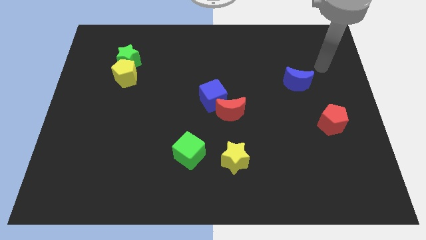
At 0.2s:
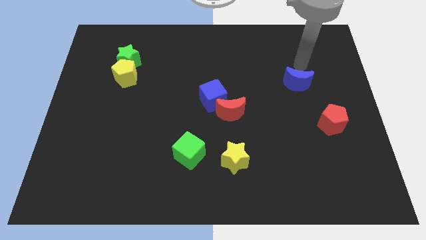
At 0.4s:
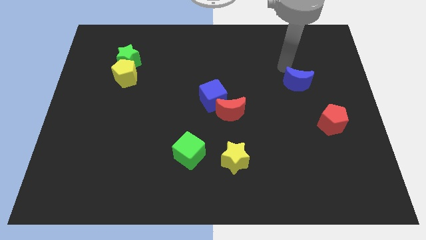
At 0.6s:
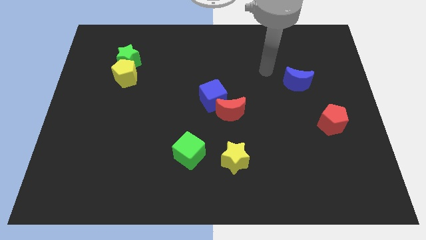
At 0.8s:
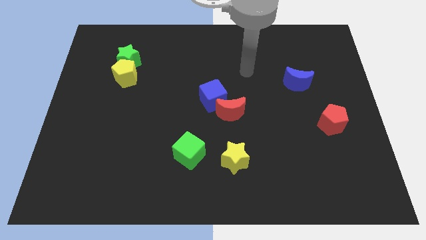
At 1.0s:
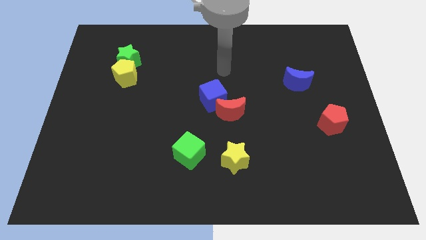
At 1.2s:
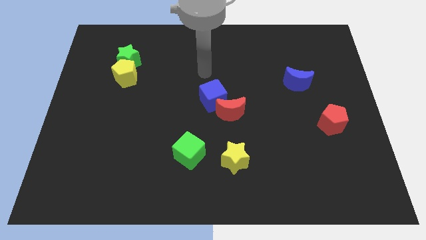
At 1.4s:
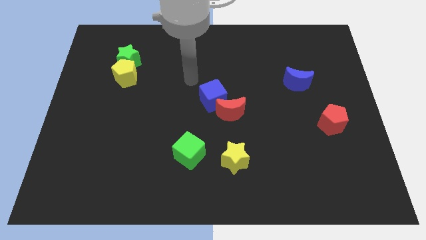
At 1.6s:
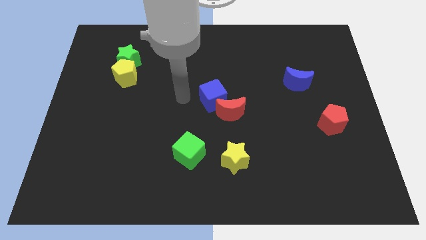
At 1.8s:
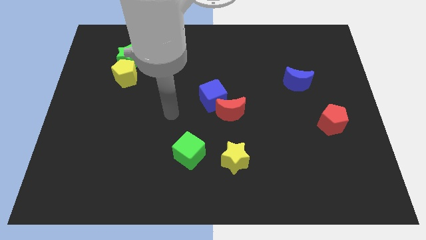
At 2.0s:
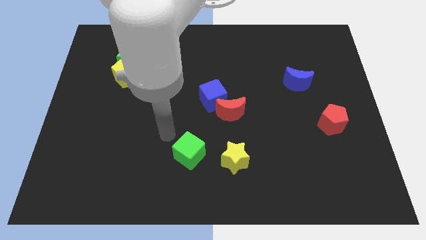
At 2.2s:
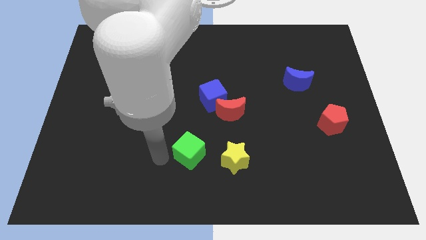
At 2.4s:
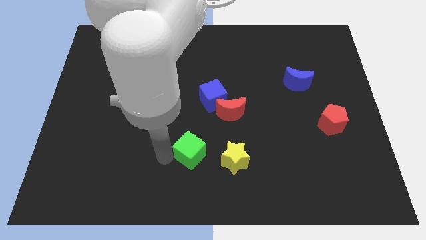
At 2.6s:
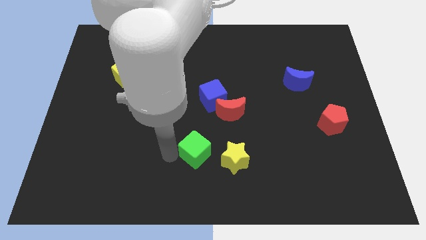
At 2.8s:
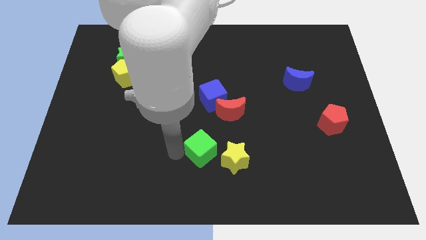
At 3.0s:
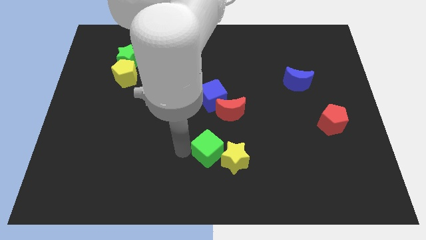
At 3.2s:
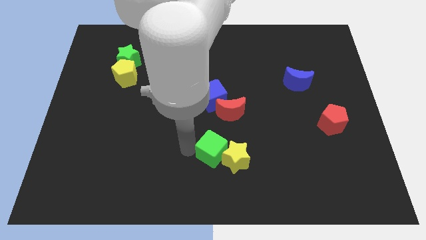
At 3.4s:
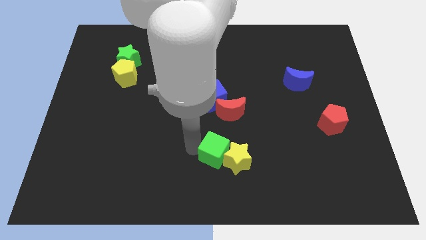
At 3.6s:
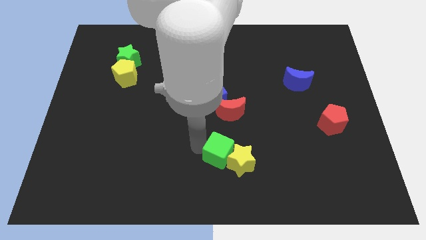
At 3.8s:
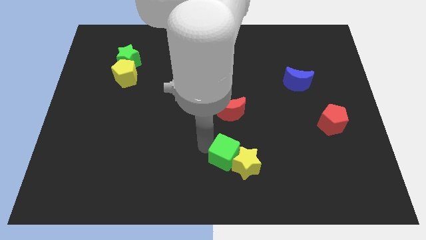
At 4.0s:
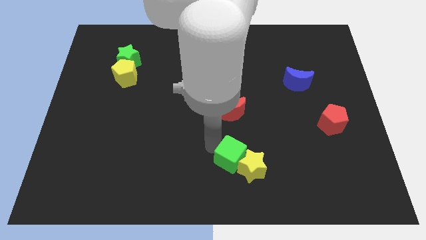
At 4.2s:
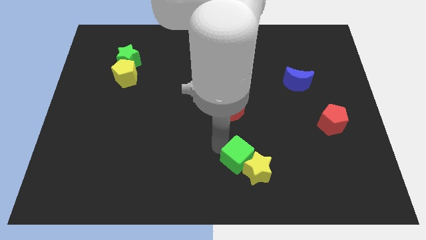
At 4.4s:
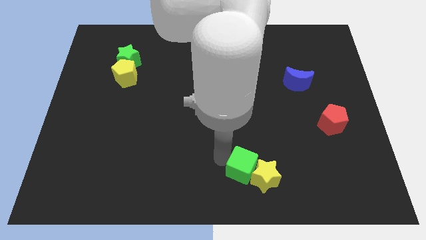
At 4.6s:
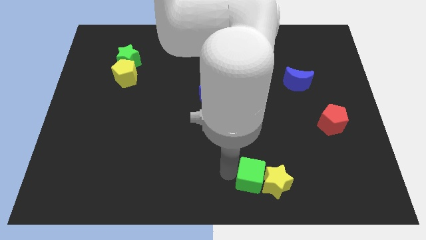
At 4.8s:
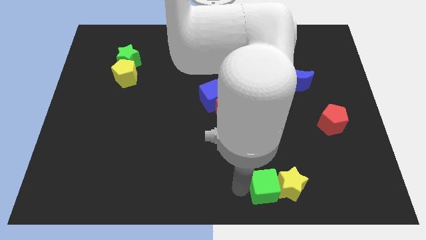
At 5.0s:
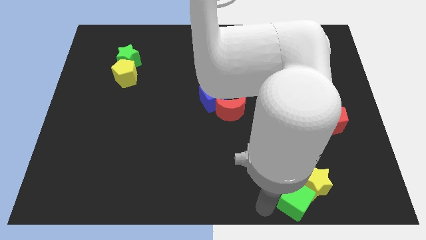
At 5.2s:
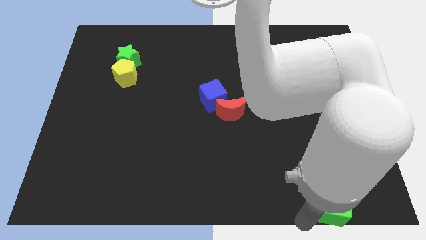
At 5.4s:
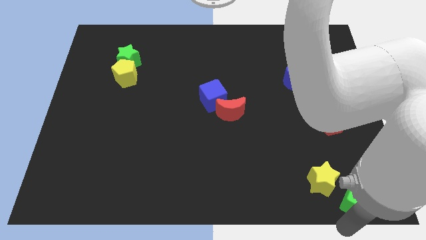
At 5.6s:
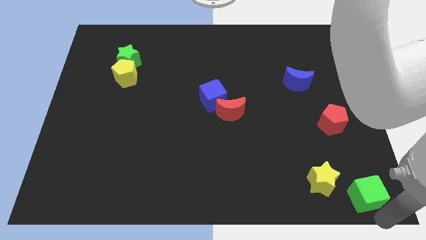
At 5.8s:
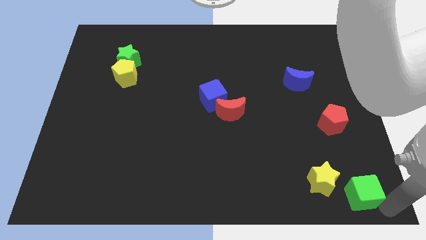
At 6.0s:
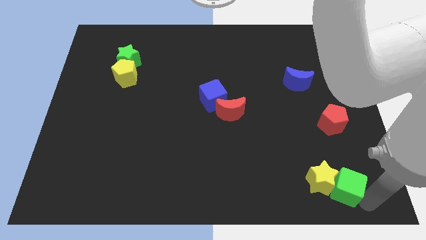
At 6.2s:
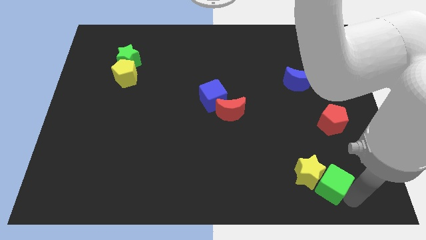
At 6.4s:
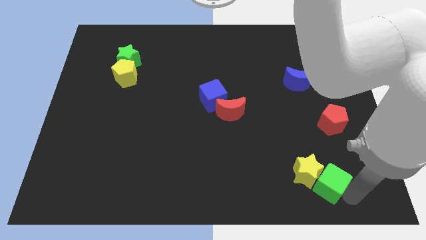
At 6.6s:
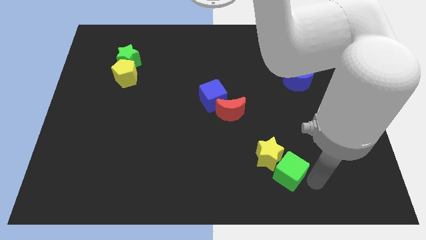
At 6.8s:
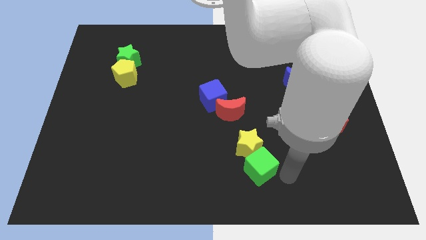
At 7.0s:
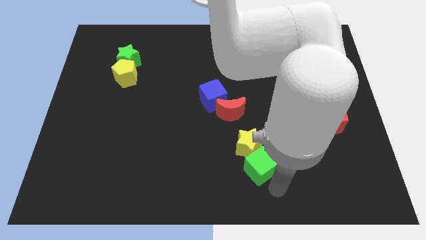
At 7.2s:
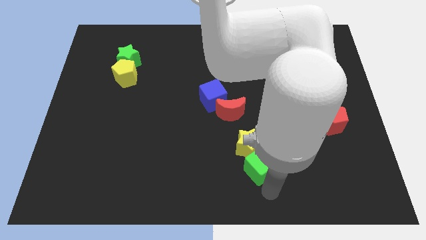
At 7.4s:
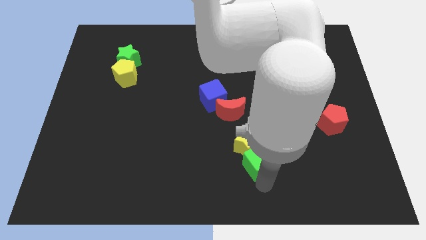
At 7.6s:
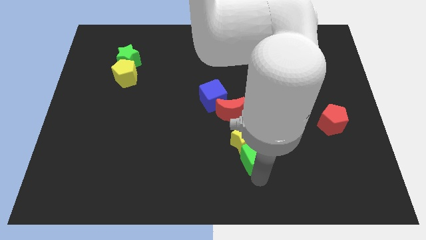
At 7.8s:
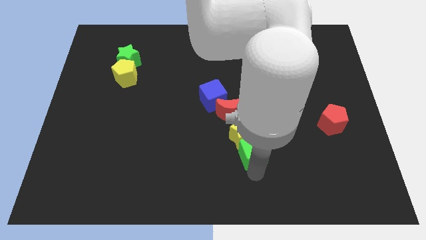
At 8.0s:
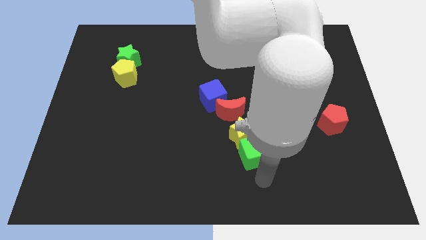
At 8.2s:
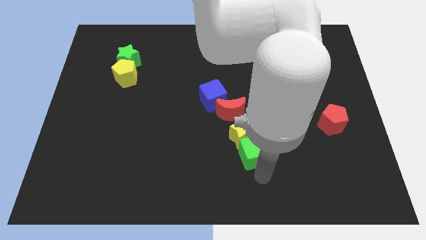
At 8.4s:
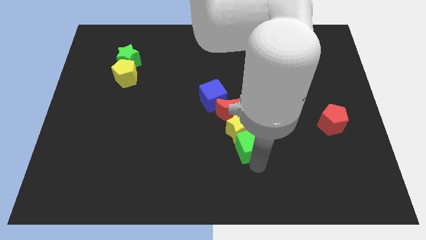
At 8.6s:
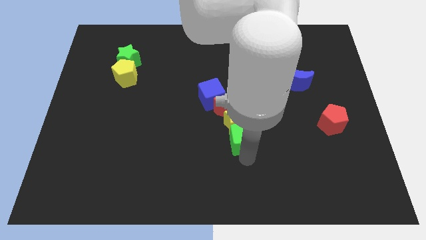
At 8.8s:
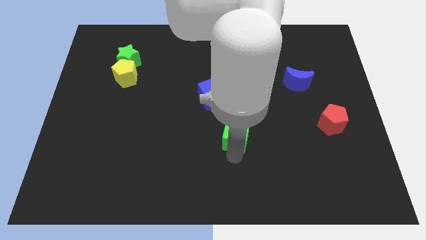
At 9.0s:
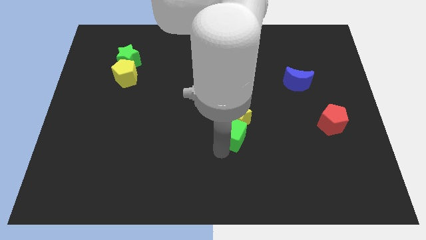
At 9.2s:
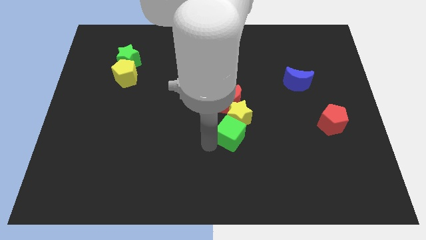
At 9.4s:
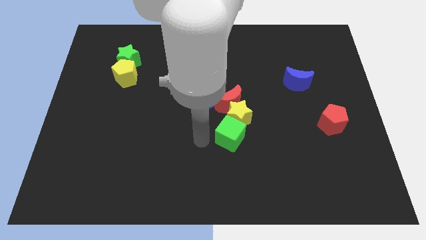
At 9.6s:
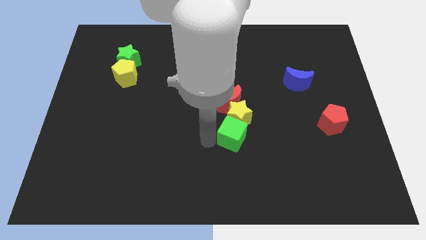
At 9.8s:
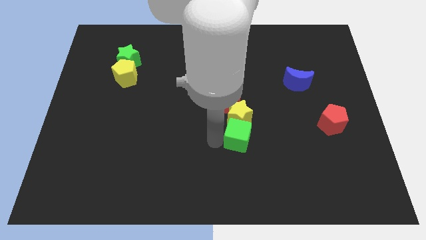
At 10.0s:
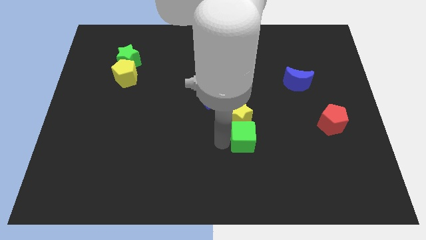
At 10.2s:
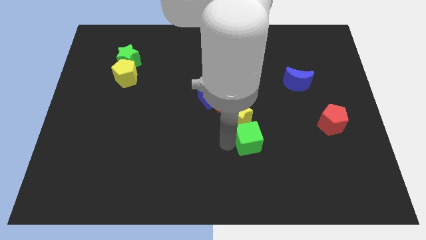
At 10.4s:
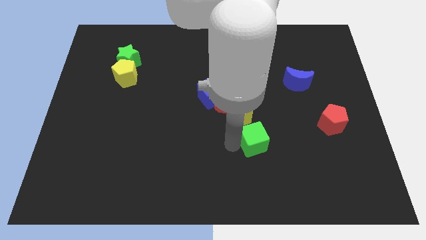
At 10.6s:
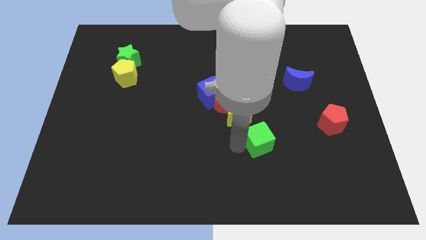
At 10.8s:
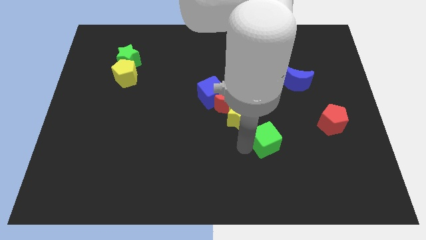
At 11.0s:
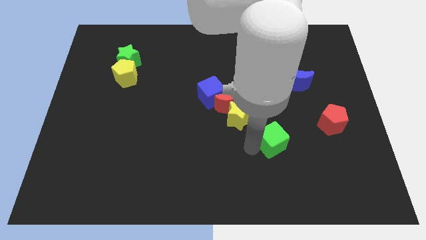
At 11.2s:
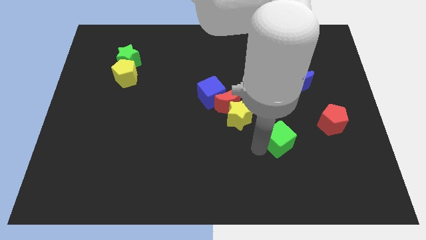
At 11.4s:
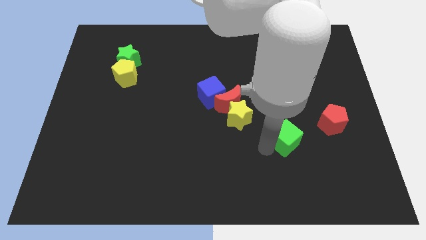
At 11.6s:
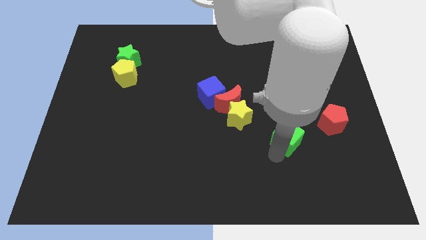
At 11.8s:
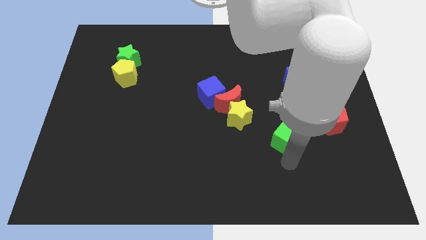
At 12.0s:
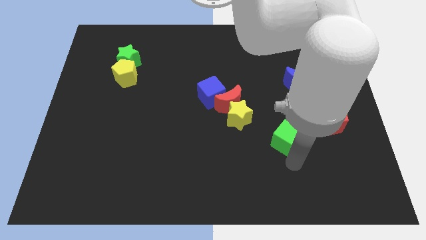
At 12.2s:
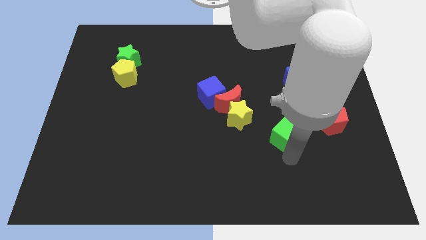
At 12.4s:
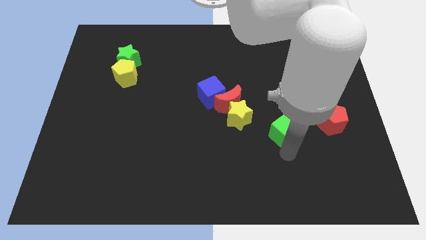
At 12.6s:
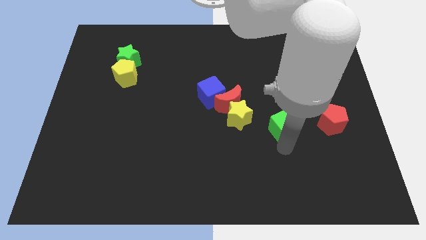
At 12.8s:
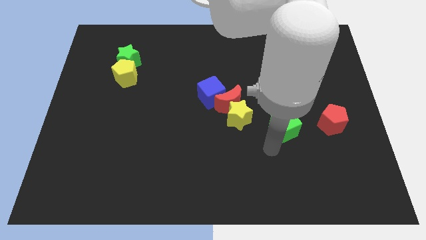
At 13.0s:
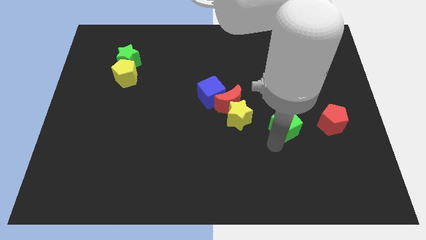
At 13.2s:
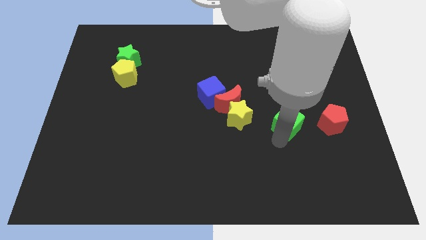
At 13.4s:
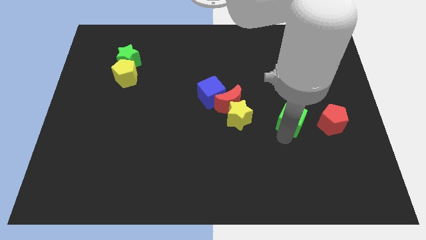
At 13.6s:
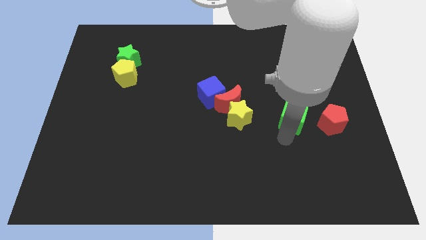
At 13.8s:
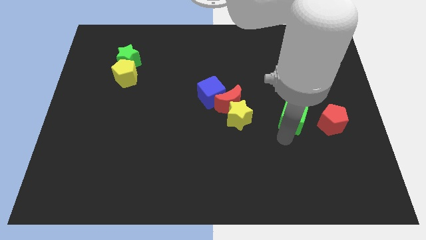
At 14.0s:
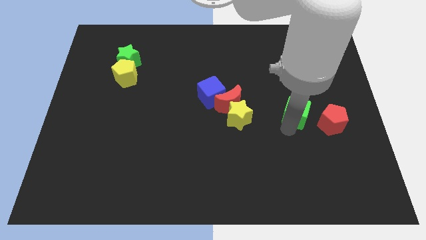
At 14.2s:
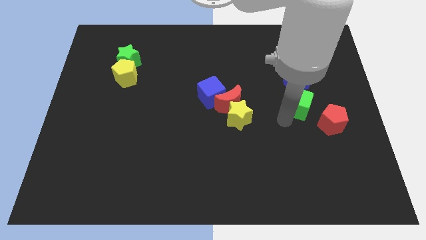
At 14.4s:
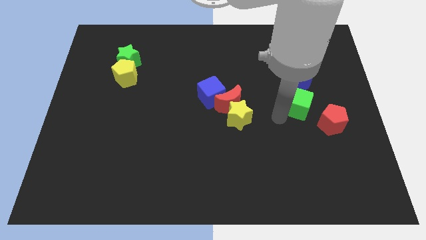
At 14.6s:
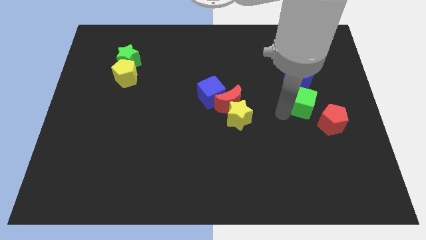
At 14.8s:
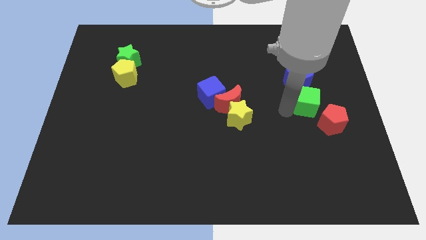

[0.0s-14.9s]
put the green cube above the red pentagon
